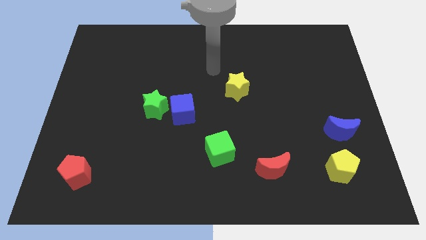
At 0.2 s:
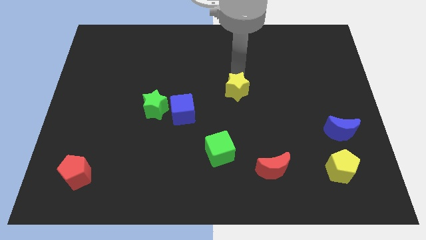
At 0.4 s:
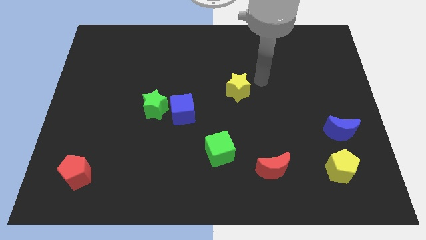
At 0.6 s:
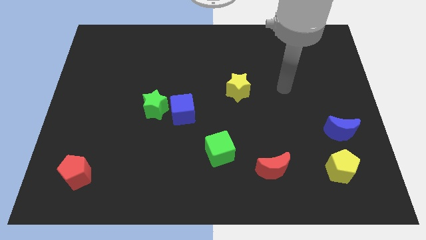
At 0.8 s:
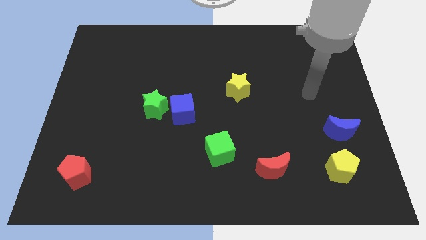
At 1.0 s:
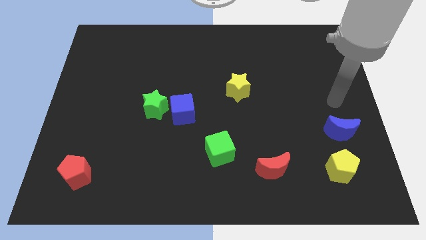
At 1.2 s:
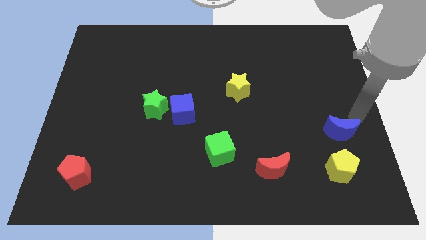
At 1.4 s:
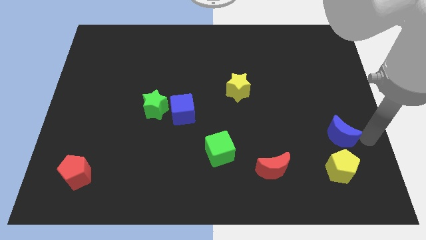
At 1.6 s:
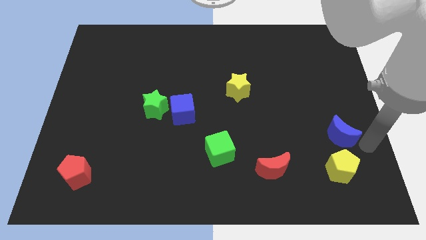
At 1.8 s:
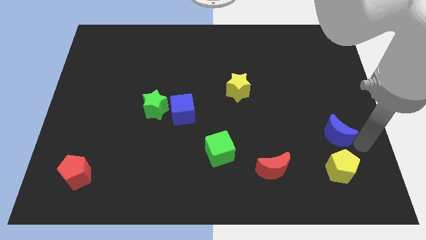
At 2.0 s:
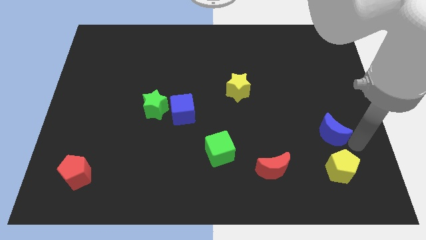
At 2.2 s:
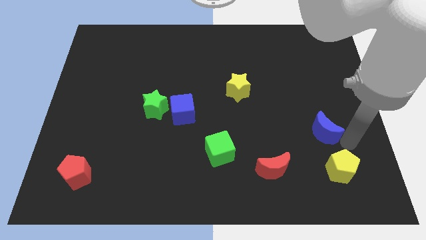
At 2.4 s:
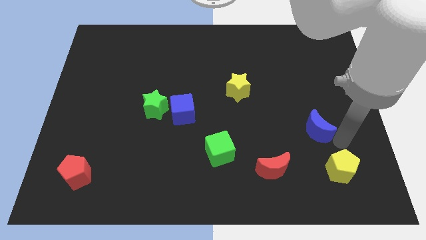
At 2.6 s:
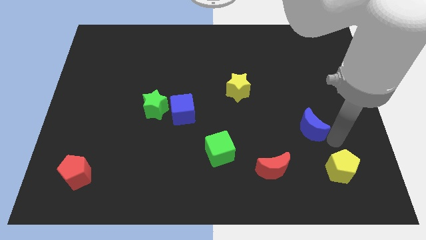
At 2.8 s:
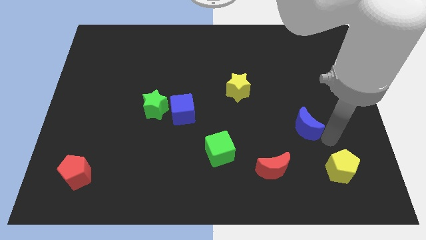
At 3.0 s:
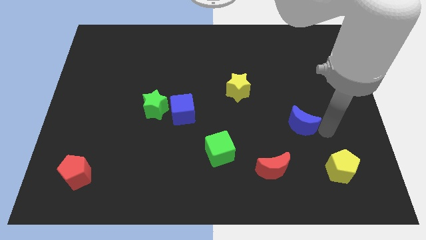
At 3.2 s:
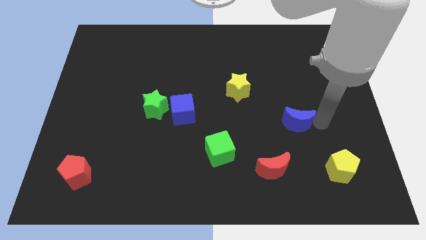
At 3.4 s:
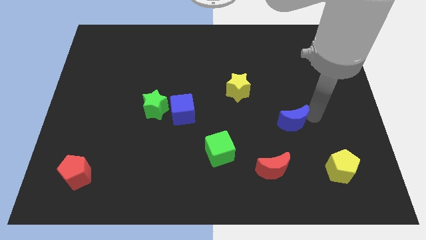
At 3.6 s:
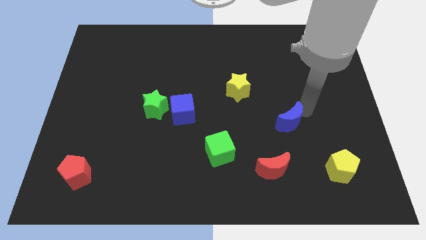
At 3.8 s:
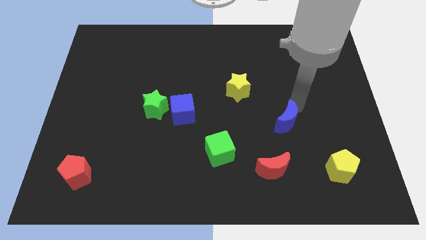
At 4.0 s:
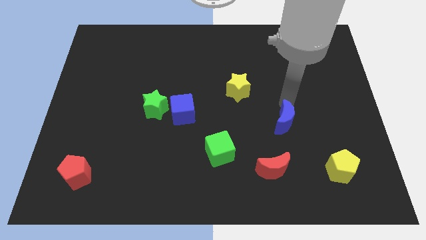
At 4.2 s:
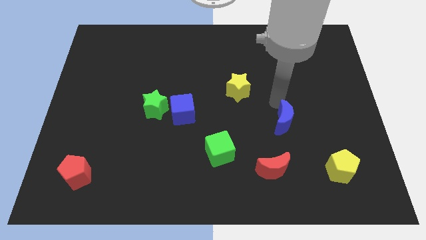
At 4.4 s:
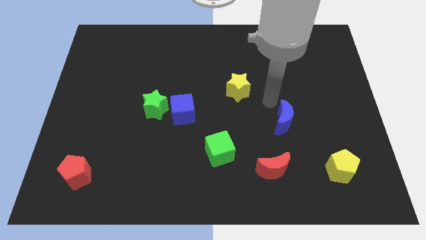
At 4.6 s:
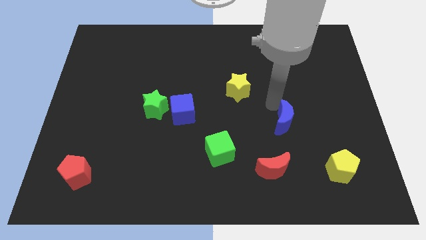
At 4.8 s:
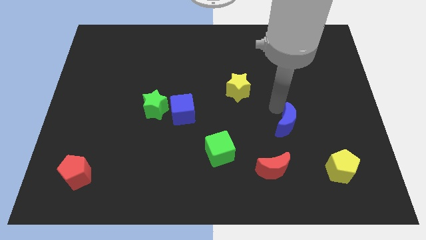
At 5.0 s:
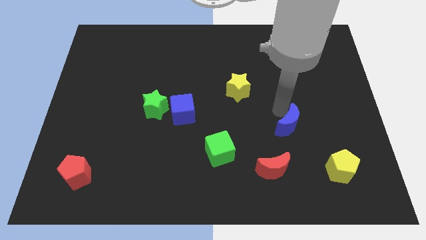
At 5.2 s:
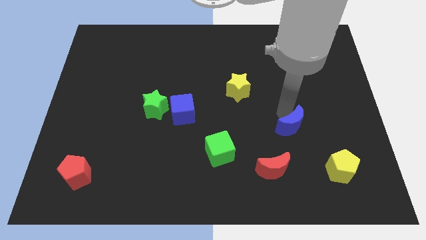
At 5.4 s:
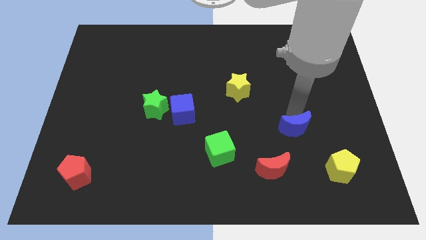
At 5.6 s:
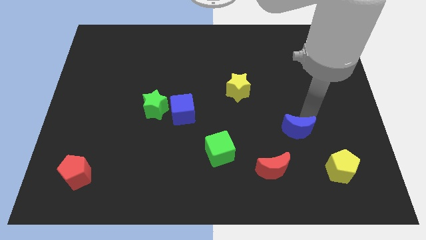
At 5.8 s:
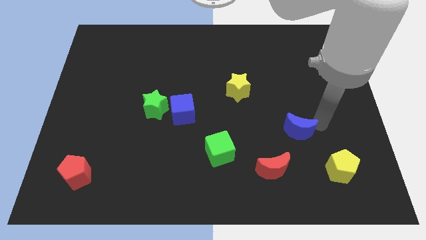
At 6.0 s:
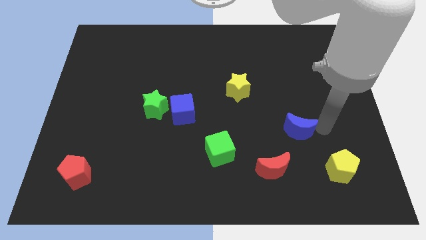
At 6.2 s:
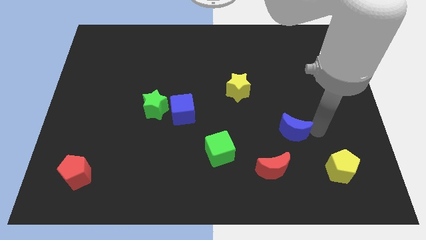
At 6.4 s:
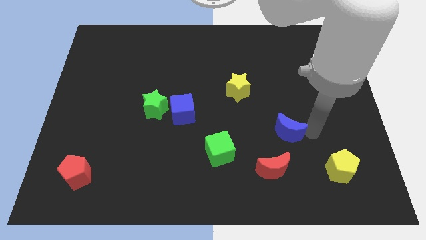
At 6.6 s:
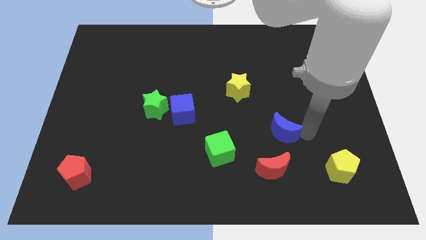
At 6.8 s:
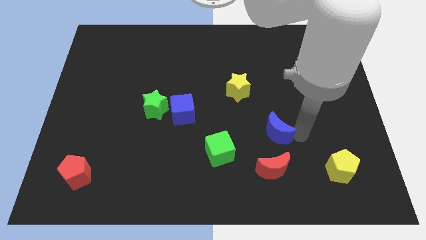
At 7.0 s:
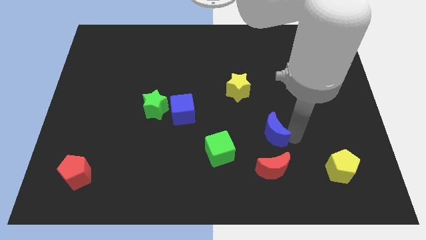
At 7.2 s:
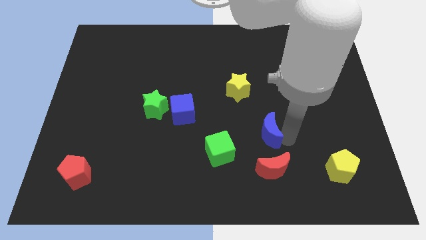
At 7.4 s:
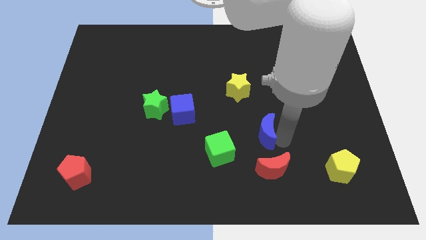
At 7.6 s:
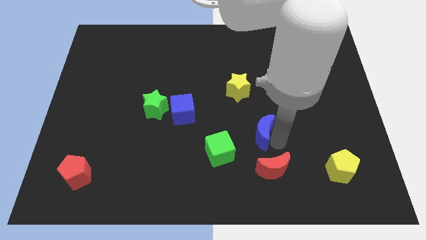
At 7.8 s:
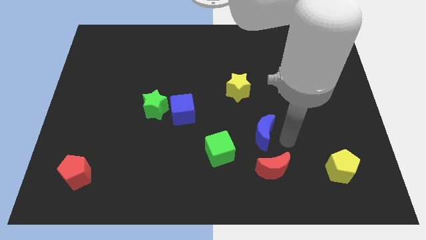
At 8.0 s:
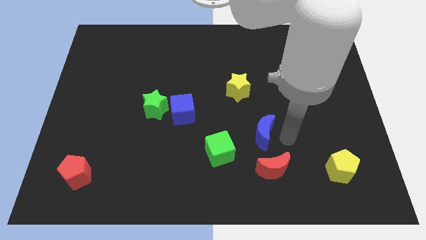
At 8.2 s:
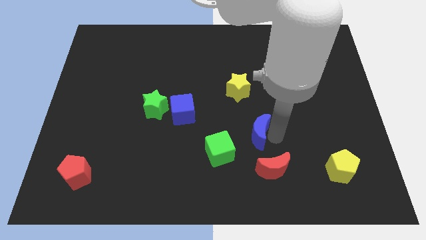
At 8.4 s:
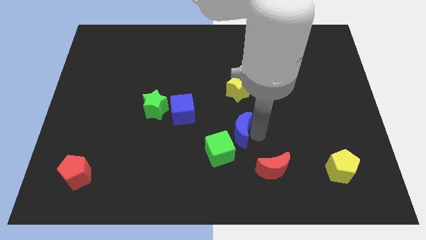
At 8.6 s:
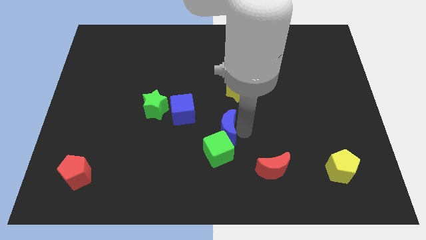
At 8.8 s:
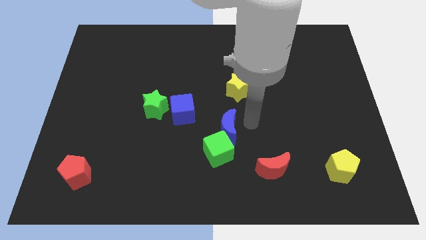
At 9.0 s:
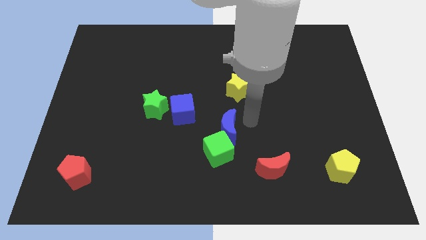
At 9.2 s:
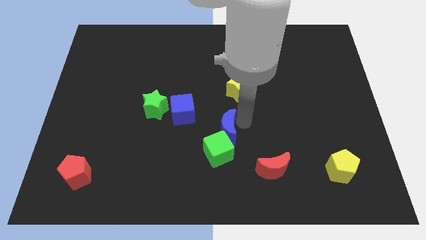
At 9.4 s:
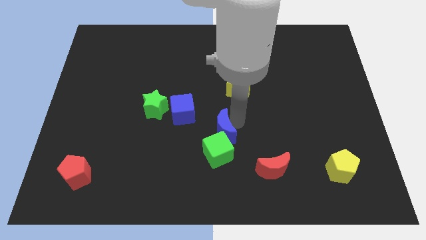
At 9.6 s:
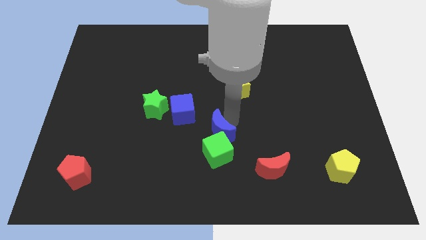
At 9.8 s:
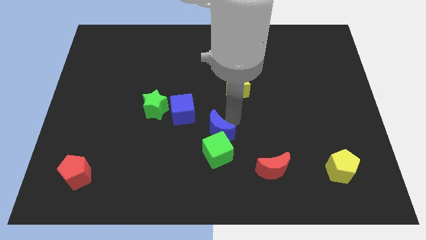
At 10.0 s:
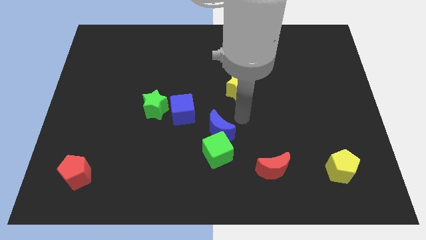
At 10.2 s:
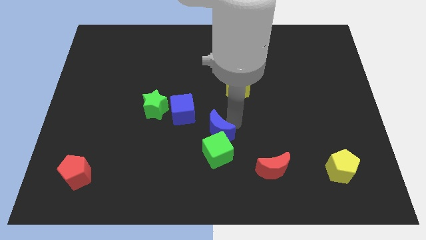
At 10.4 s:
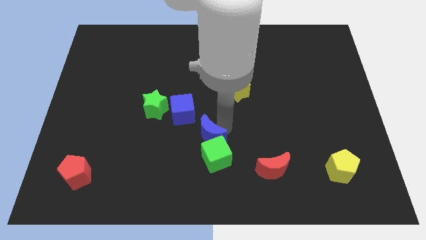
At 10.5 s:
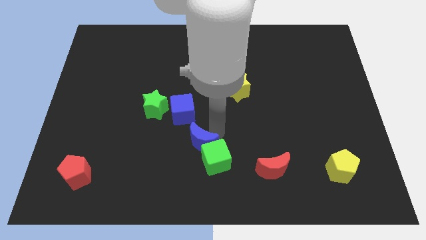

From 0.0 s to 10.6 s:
move the blue moon just left of the green cube

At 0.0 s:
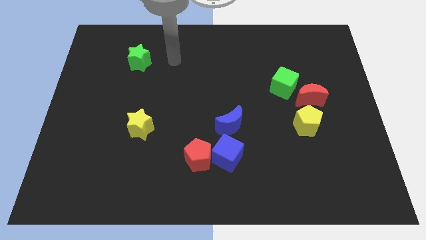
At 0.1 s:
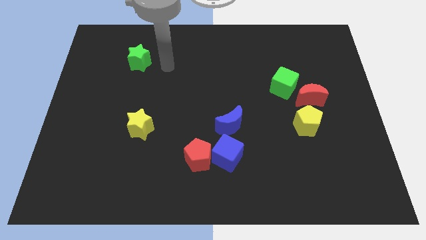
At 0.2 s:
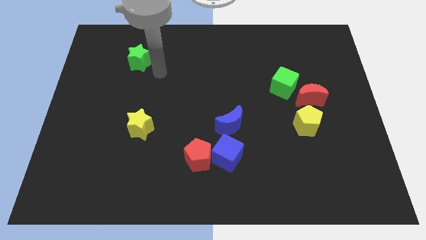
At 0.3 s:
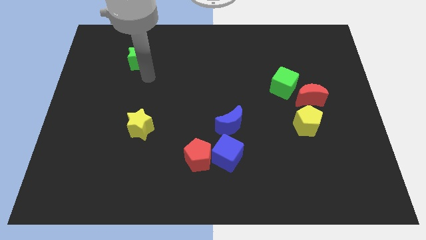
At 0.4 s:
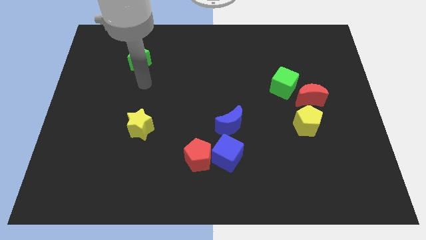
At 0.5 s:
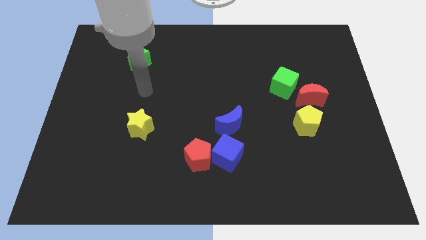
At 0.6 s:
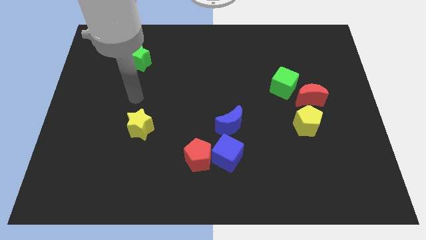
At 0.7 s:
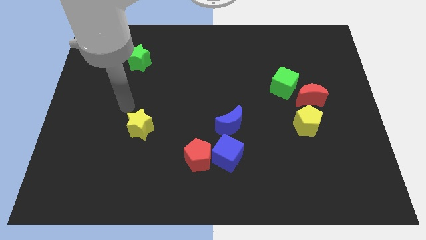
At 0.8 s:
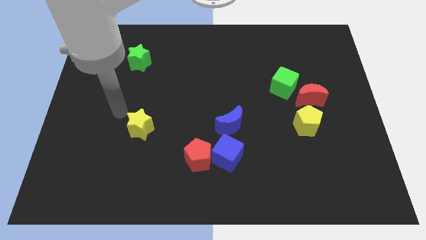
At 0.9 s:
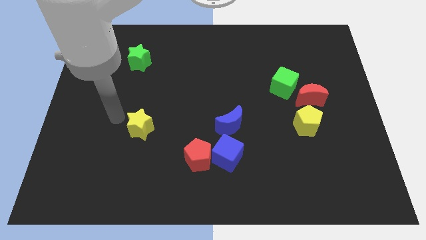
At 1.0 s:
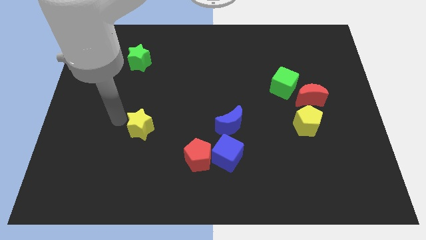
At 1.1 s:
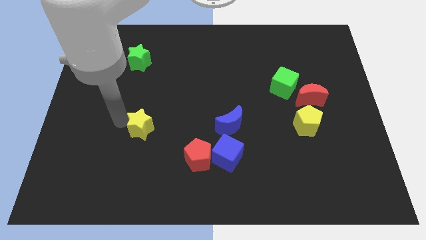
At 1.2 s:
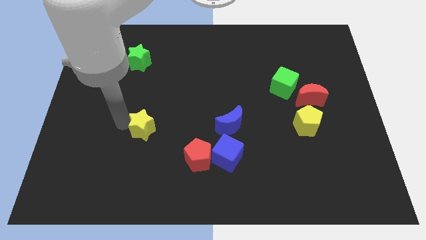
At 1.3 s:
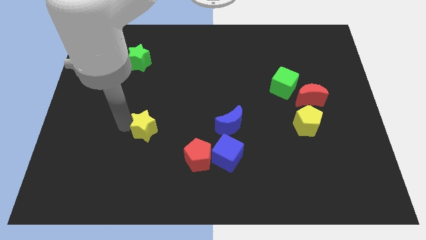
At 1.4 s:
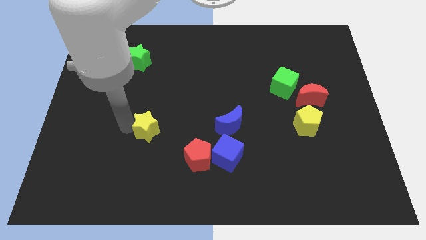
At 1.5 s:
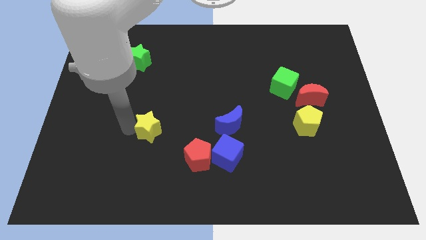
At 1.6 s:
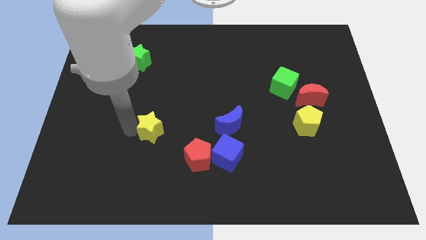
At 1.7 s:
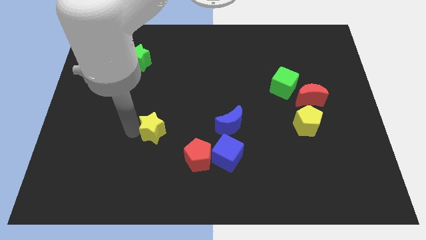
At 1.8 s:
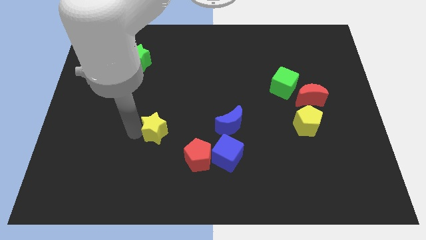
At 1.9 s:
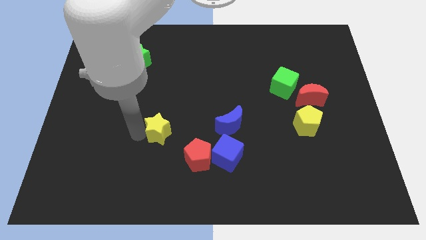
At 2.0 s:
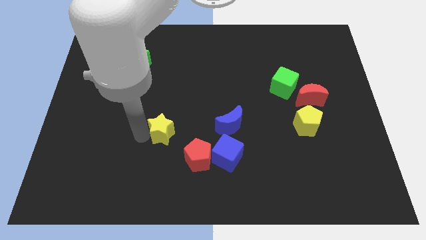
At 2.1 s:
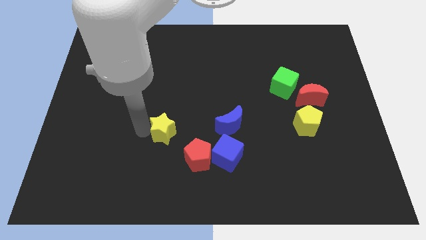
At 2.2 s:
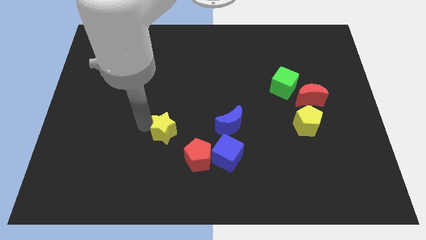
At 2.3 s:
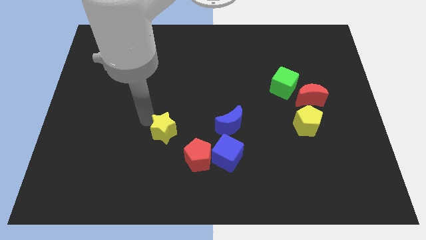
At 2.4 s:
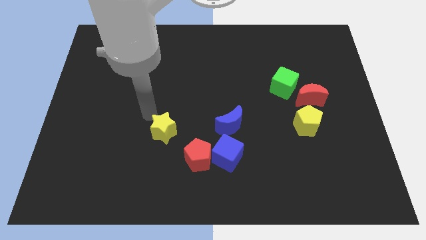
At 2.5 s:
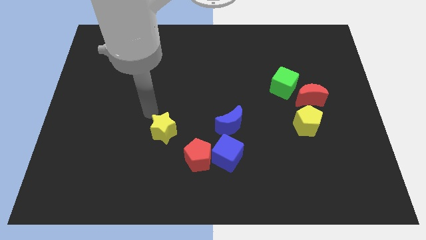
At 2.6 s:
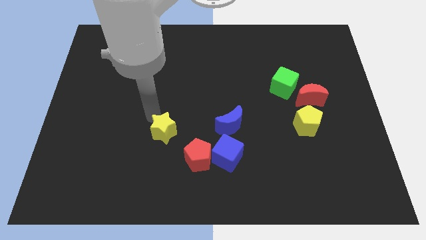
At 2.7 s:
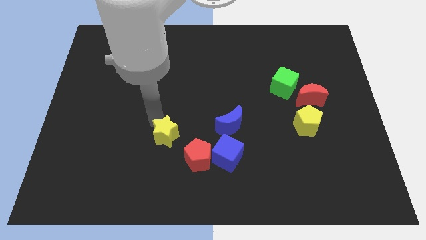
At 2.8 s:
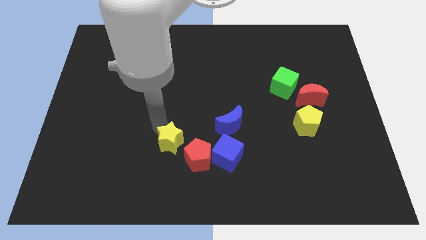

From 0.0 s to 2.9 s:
put the yellow star to the left of the blue cube
